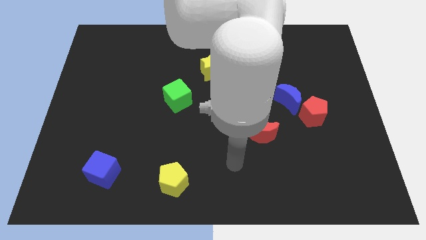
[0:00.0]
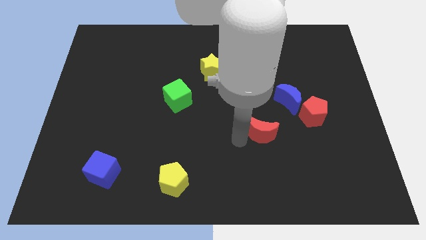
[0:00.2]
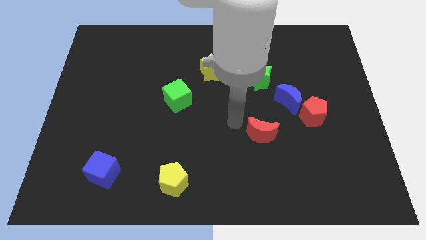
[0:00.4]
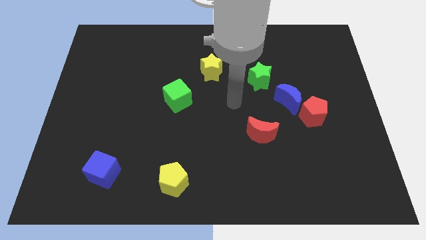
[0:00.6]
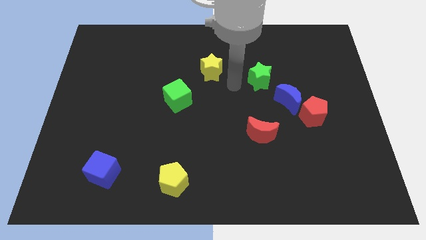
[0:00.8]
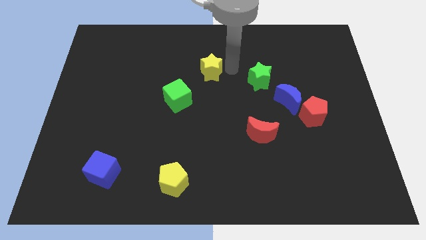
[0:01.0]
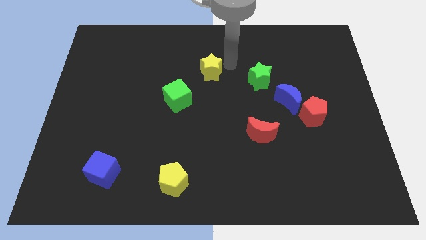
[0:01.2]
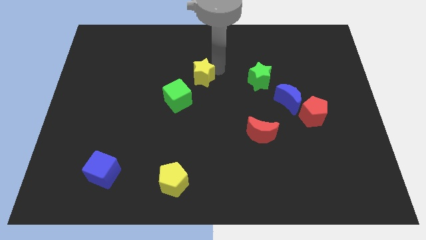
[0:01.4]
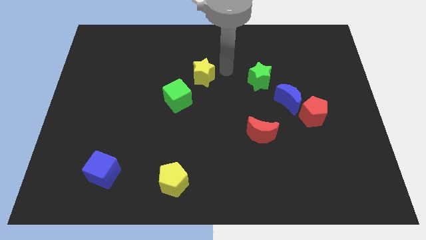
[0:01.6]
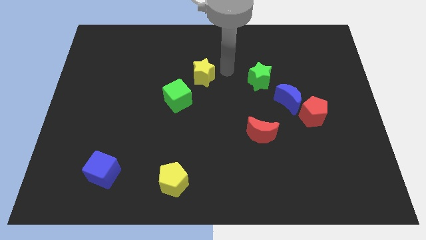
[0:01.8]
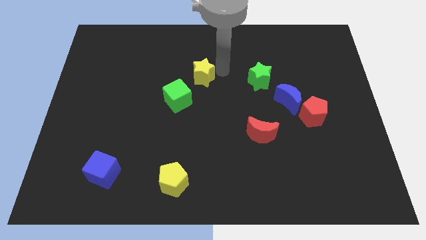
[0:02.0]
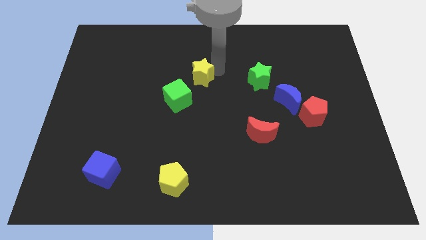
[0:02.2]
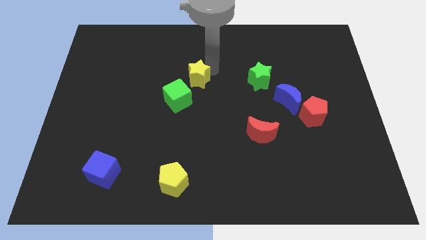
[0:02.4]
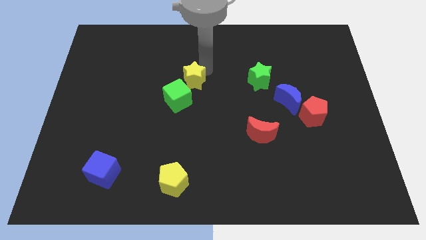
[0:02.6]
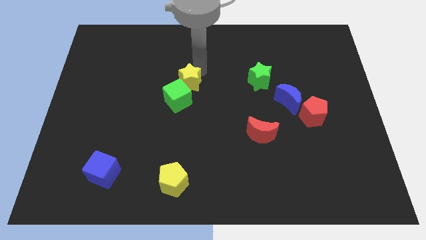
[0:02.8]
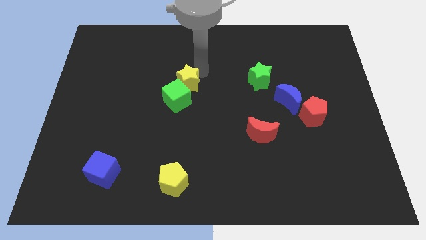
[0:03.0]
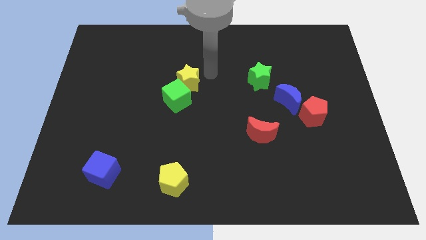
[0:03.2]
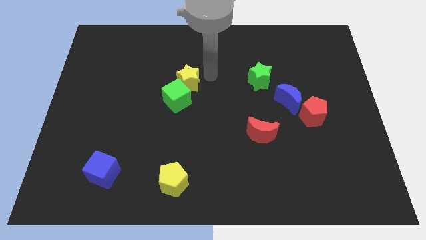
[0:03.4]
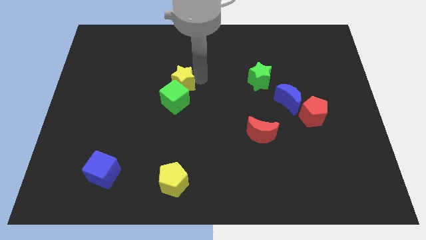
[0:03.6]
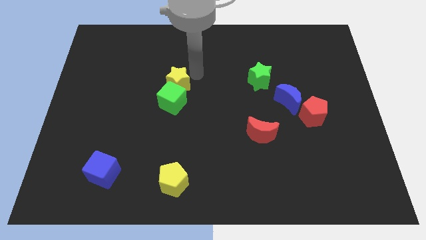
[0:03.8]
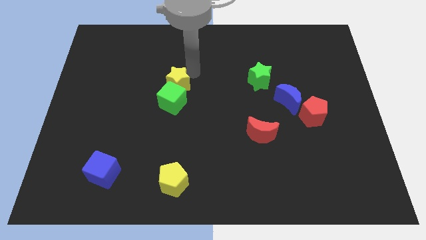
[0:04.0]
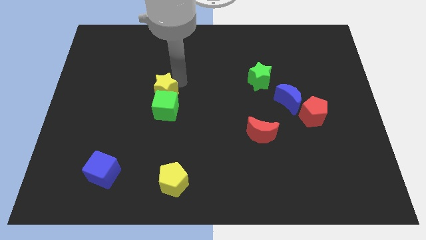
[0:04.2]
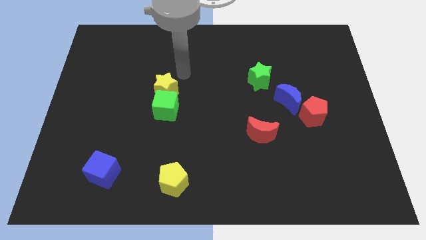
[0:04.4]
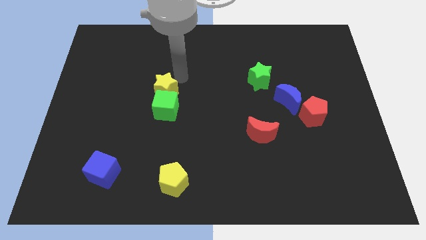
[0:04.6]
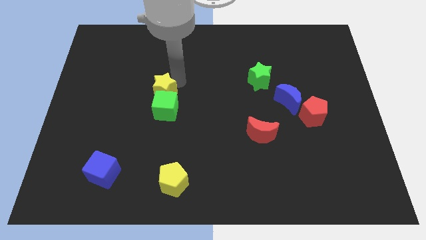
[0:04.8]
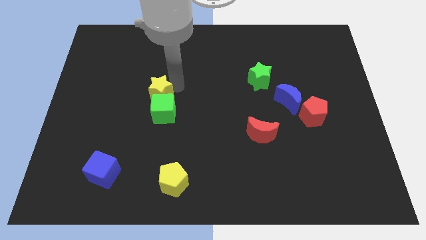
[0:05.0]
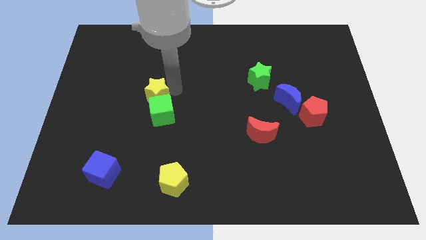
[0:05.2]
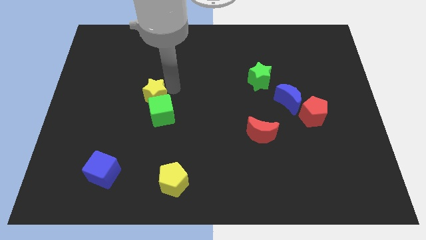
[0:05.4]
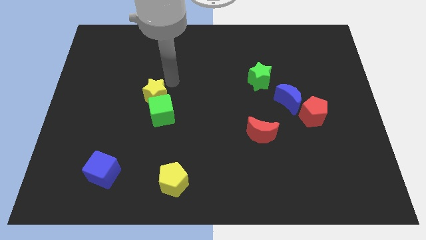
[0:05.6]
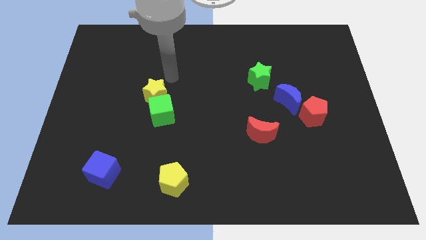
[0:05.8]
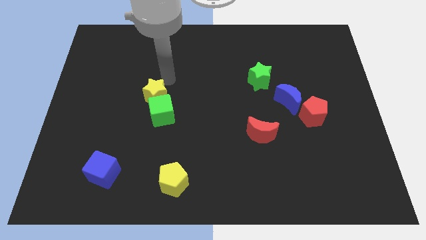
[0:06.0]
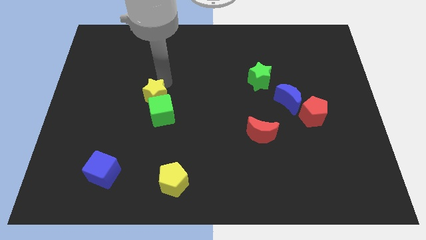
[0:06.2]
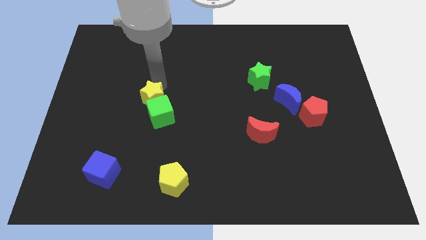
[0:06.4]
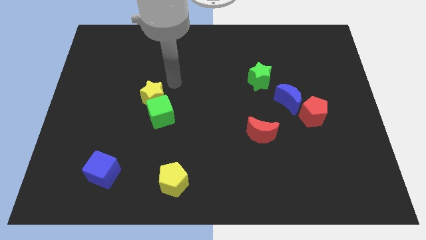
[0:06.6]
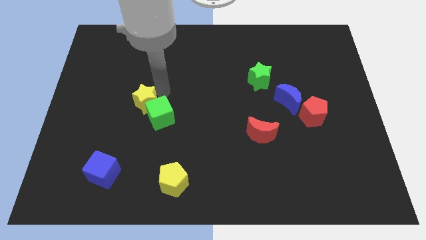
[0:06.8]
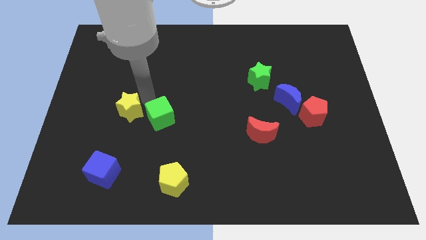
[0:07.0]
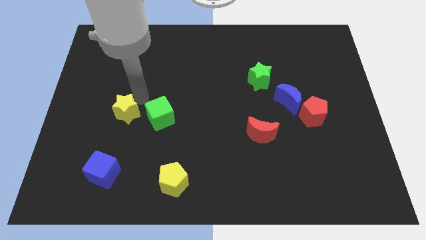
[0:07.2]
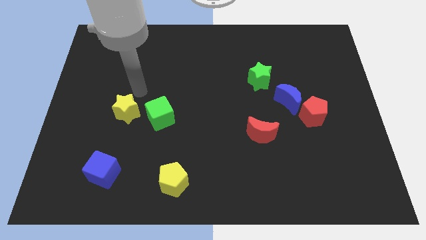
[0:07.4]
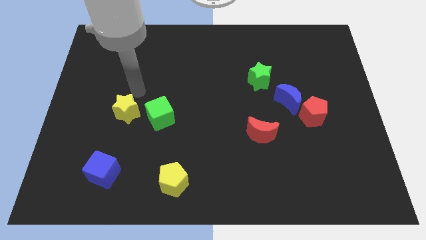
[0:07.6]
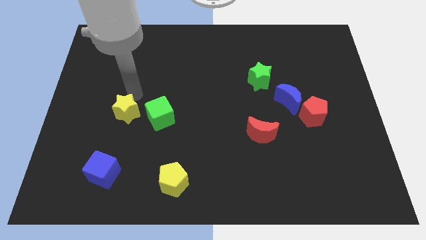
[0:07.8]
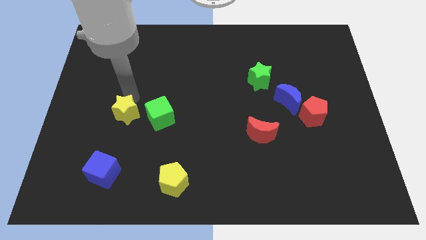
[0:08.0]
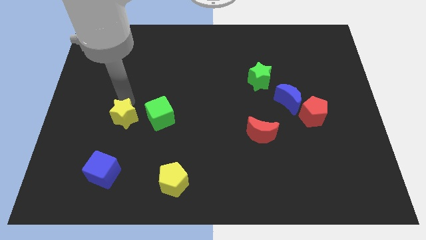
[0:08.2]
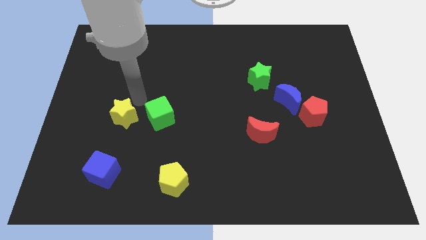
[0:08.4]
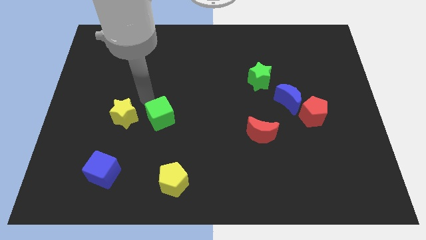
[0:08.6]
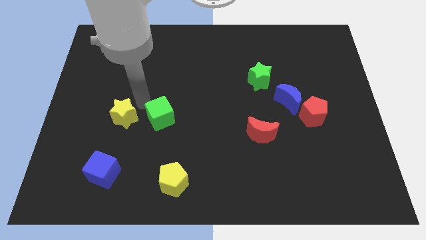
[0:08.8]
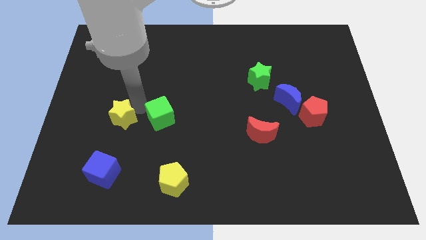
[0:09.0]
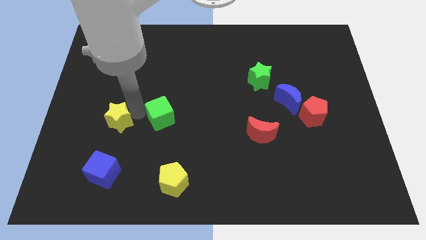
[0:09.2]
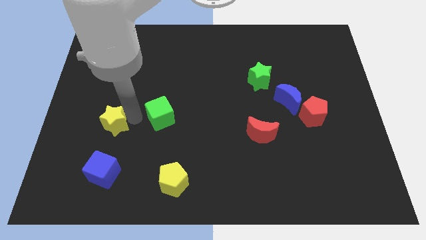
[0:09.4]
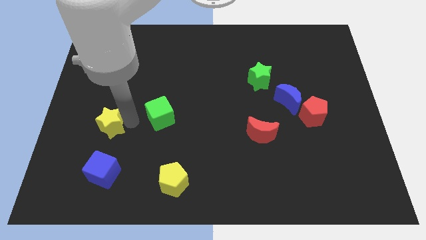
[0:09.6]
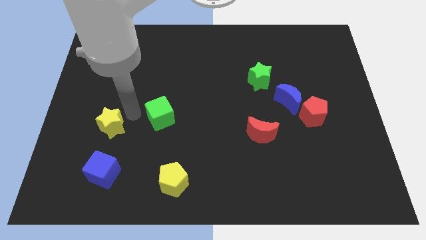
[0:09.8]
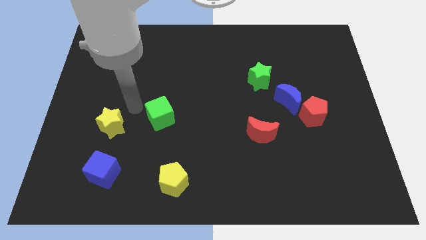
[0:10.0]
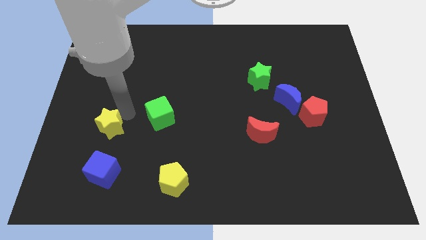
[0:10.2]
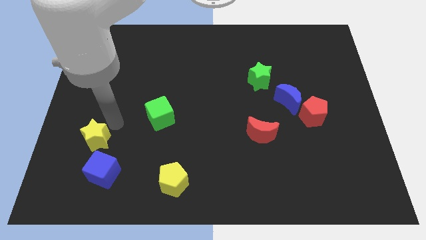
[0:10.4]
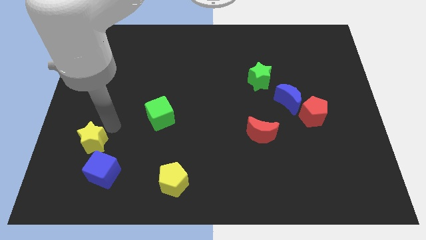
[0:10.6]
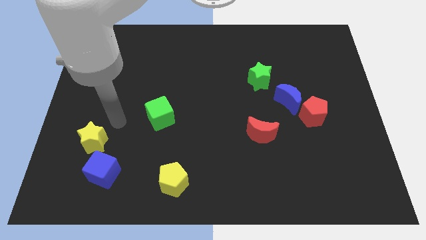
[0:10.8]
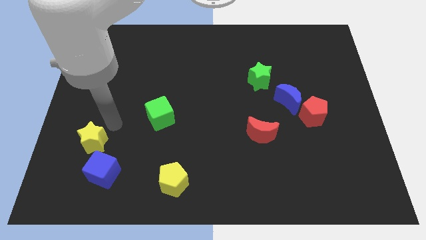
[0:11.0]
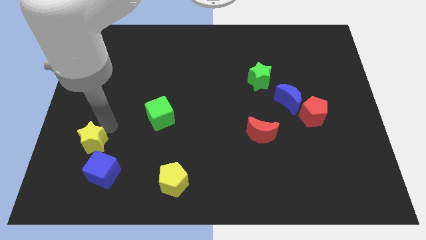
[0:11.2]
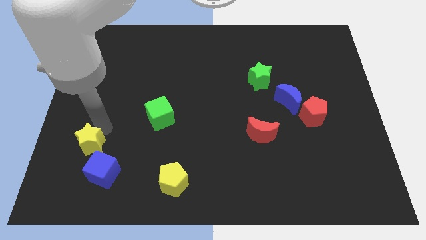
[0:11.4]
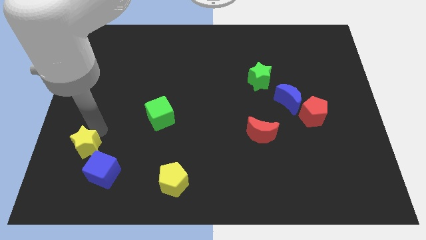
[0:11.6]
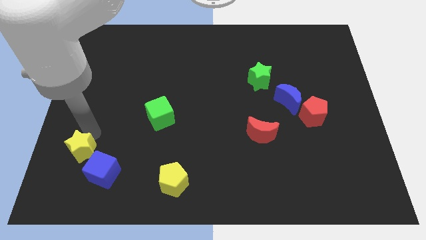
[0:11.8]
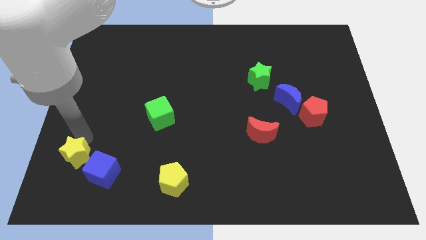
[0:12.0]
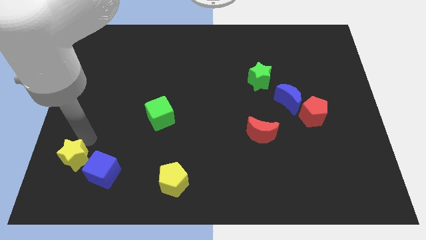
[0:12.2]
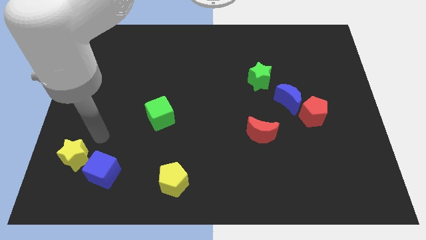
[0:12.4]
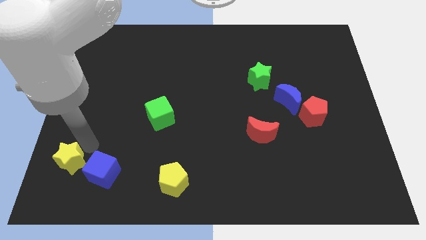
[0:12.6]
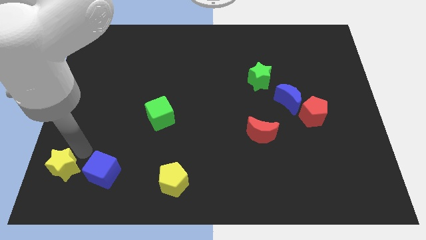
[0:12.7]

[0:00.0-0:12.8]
push the yellow star to the bottom left of the board
